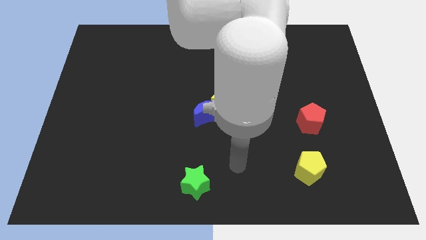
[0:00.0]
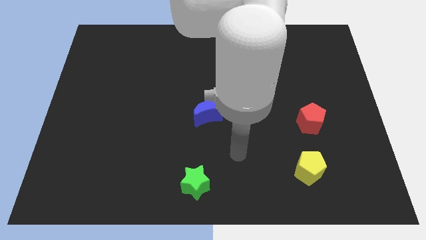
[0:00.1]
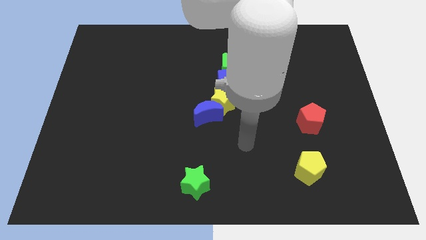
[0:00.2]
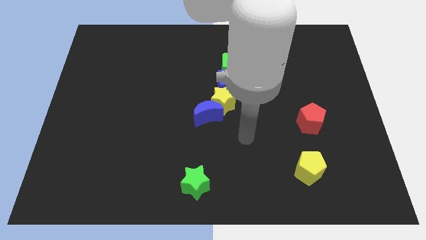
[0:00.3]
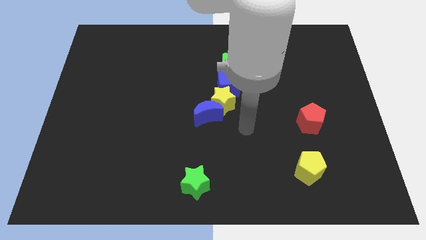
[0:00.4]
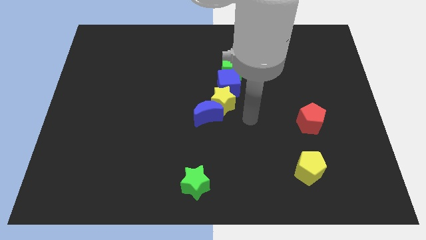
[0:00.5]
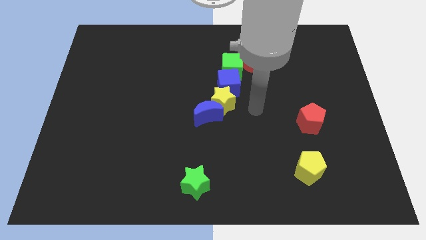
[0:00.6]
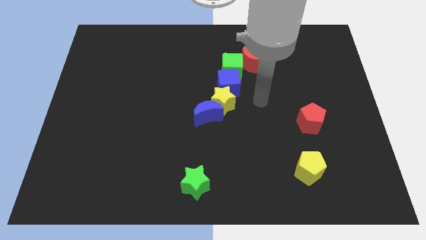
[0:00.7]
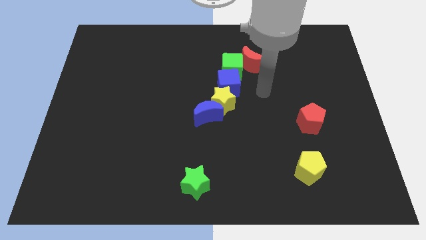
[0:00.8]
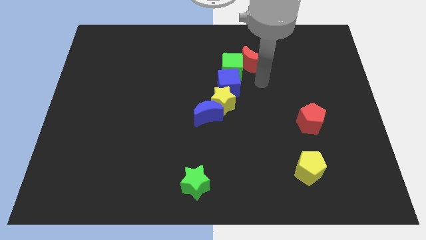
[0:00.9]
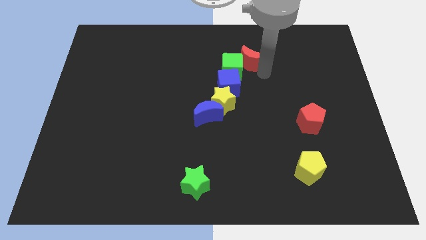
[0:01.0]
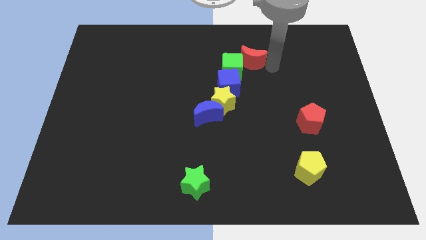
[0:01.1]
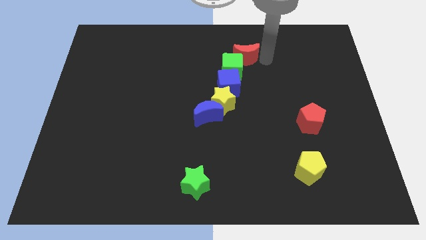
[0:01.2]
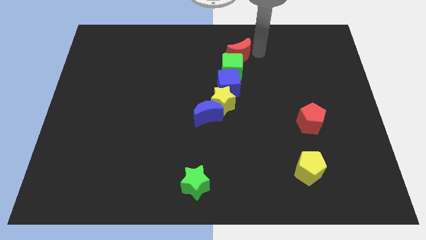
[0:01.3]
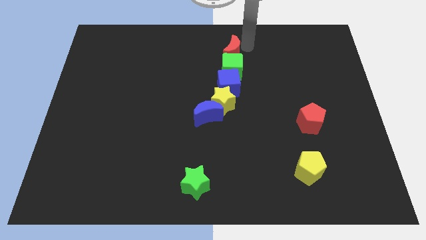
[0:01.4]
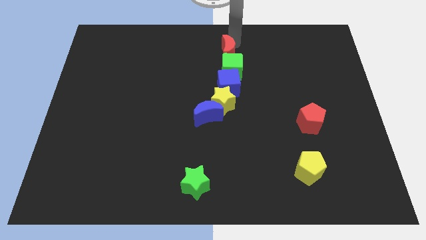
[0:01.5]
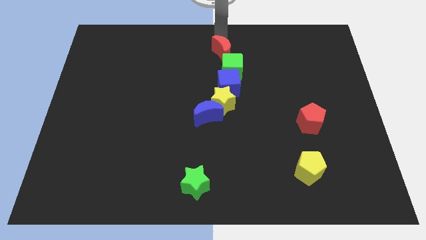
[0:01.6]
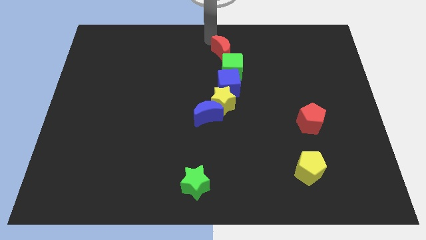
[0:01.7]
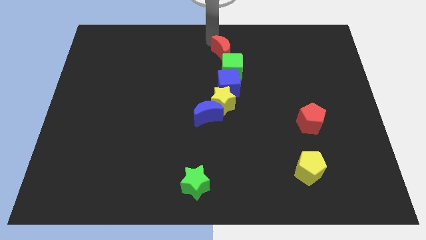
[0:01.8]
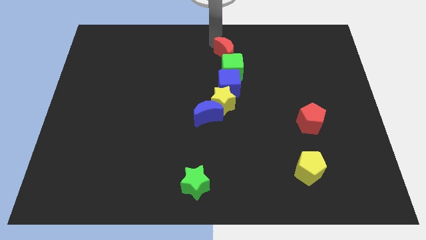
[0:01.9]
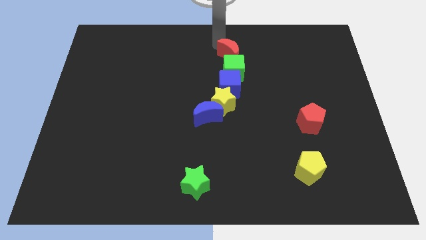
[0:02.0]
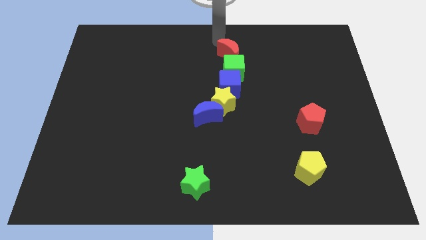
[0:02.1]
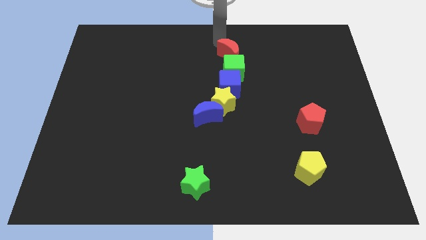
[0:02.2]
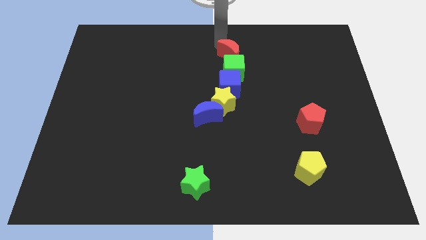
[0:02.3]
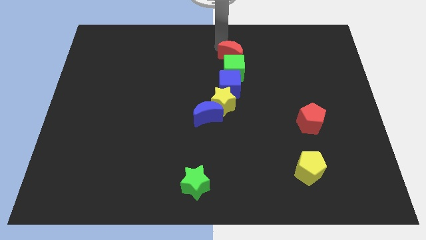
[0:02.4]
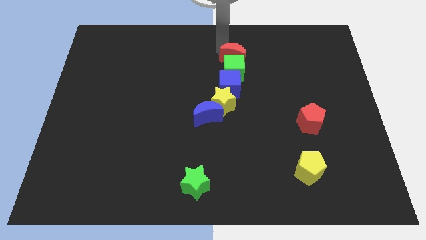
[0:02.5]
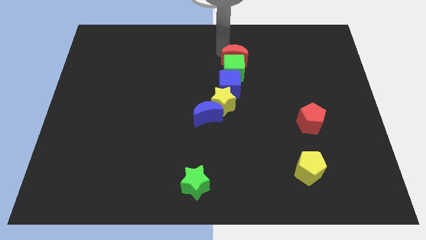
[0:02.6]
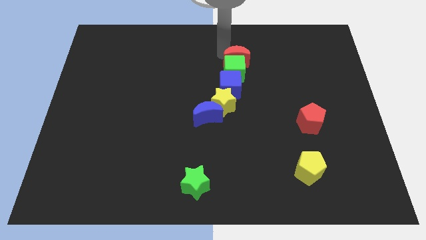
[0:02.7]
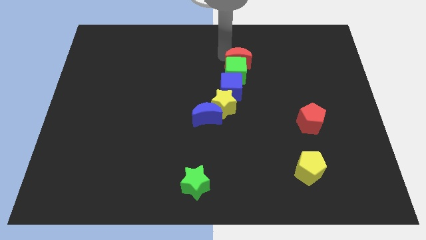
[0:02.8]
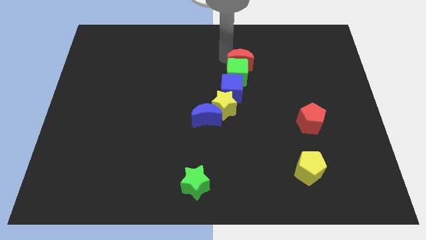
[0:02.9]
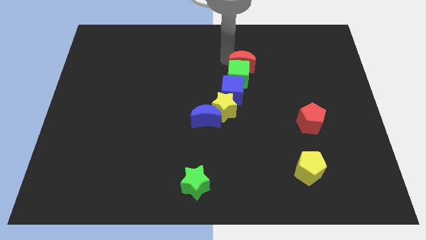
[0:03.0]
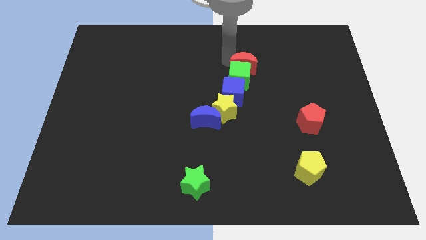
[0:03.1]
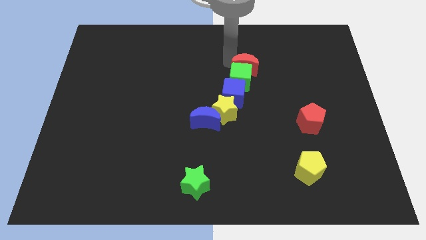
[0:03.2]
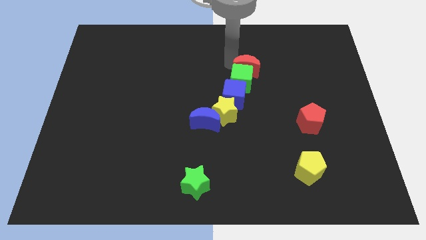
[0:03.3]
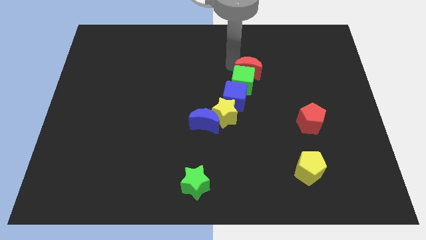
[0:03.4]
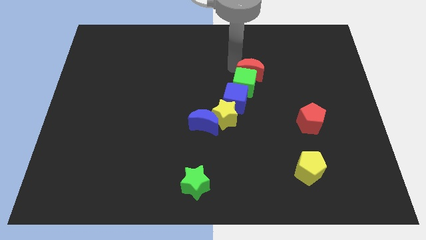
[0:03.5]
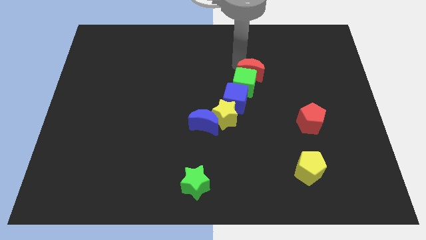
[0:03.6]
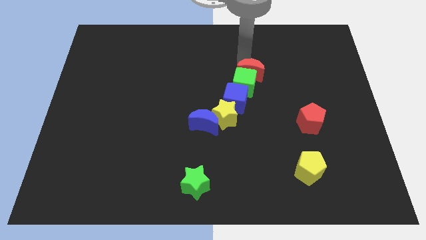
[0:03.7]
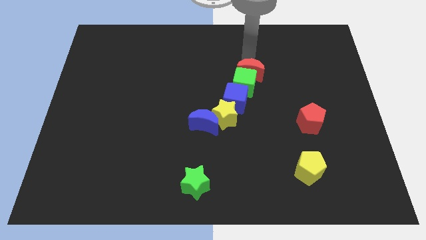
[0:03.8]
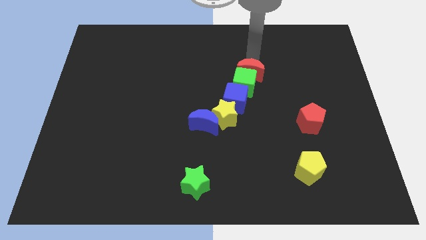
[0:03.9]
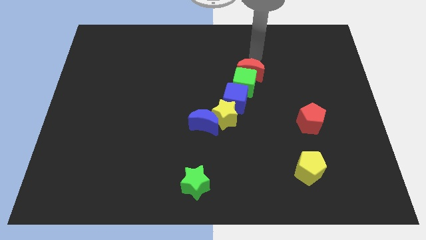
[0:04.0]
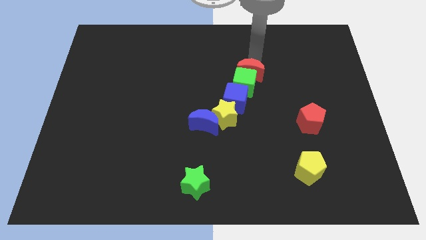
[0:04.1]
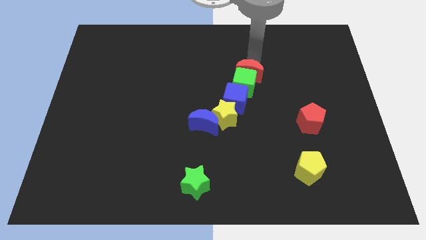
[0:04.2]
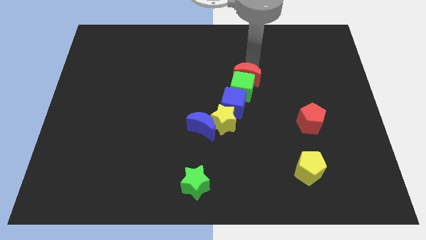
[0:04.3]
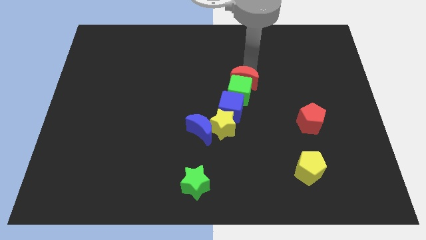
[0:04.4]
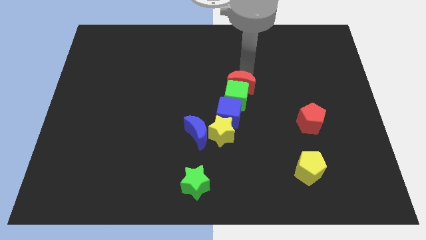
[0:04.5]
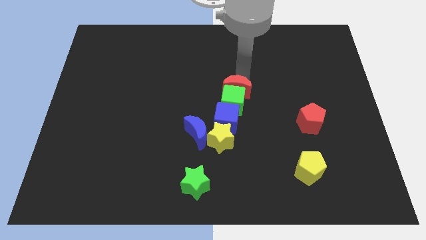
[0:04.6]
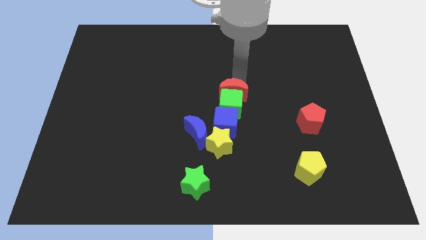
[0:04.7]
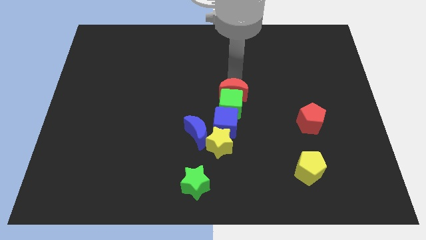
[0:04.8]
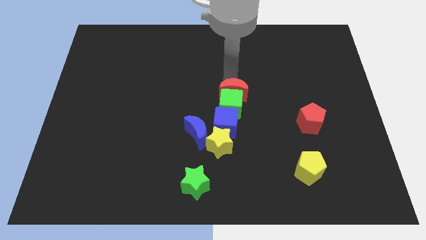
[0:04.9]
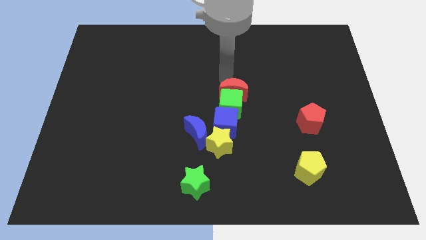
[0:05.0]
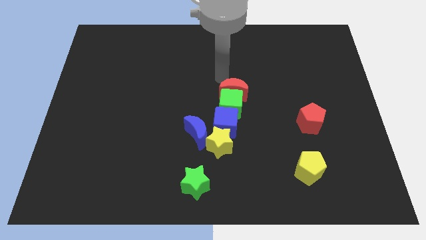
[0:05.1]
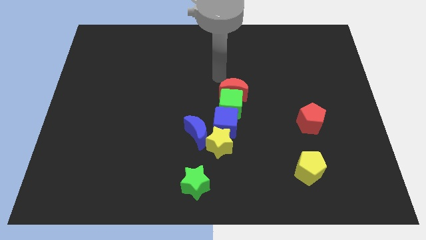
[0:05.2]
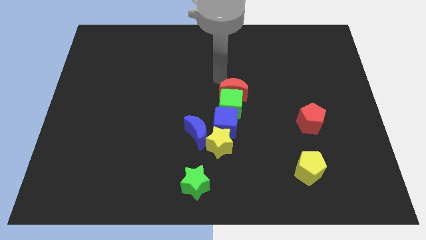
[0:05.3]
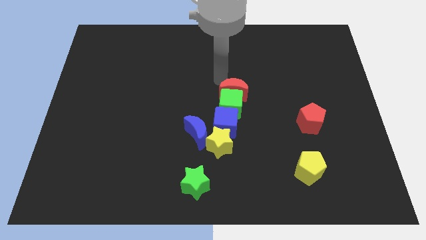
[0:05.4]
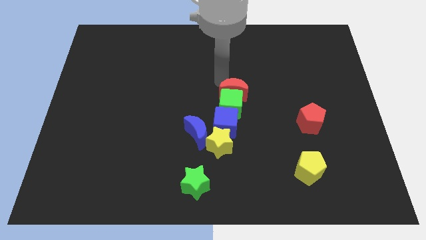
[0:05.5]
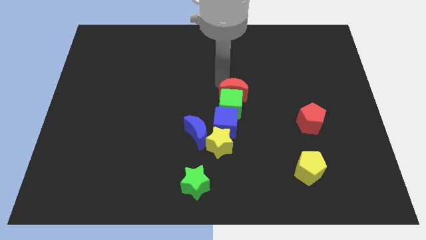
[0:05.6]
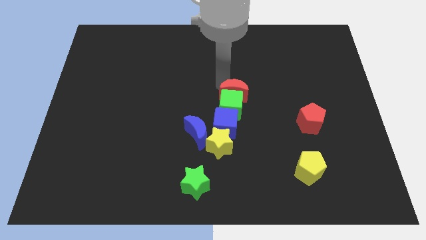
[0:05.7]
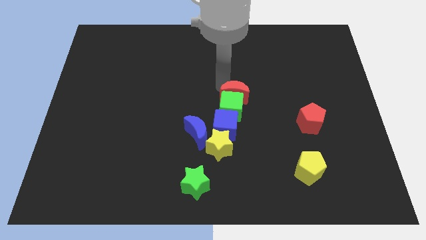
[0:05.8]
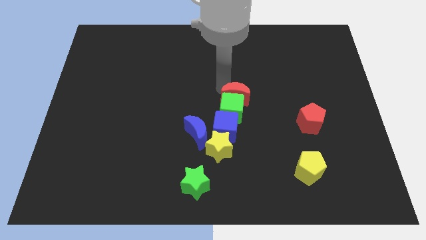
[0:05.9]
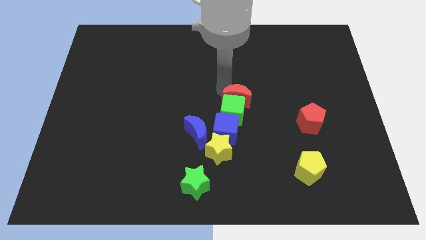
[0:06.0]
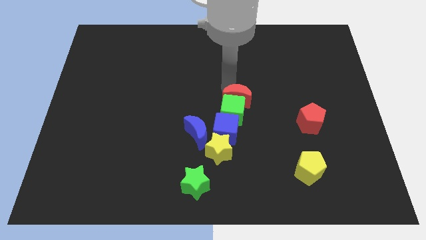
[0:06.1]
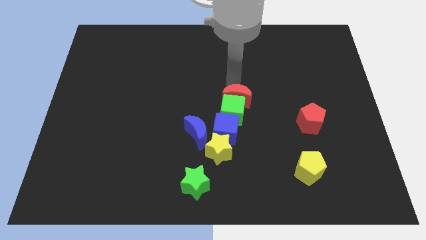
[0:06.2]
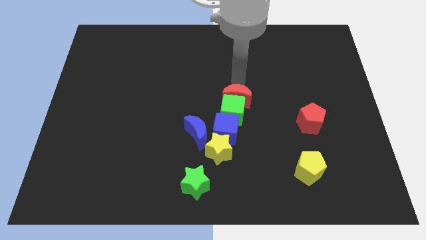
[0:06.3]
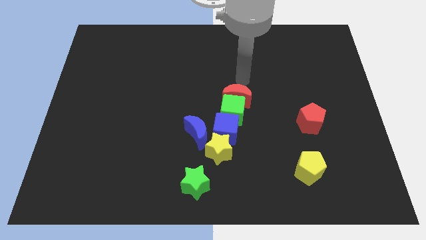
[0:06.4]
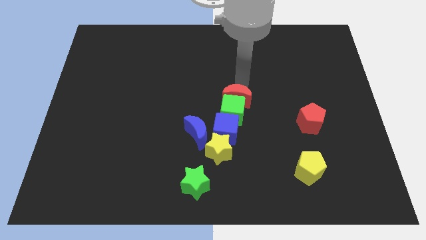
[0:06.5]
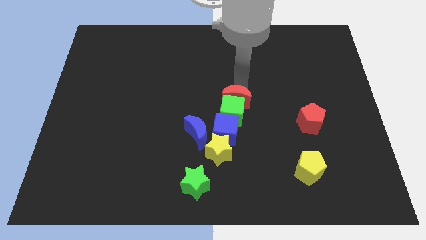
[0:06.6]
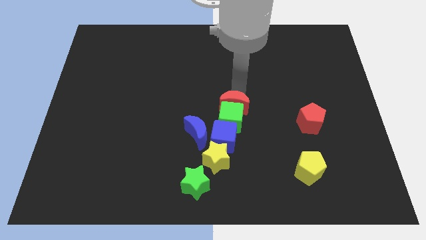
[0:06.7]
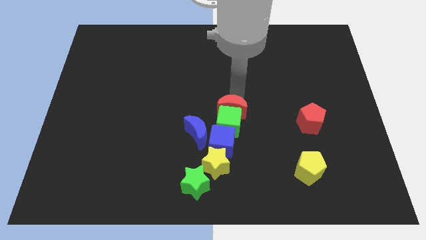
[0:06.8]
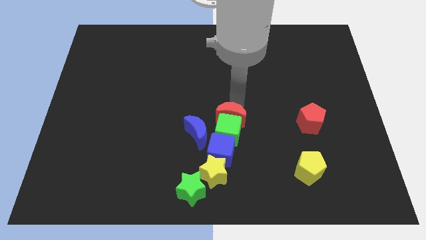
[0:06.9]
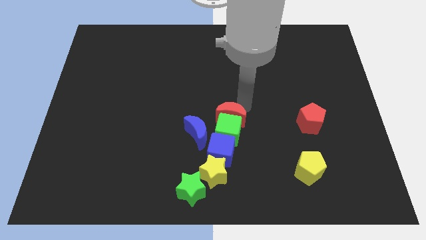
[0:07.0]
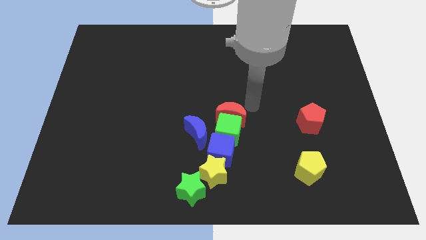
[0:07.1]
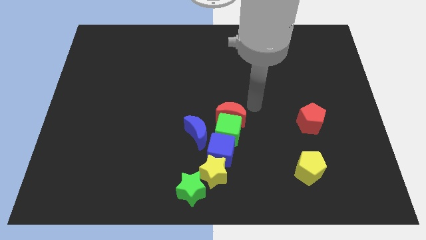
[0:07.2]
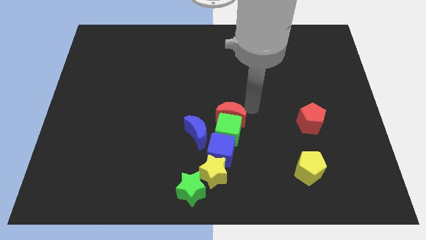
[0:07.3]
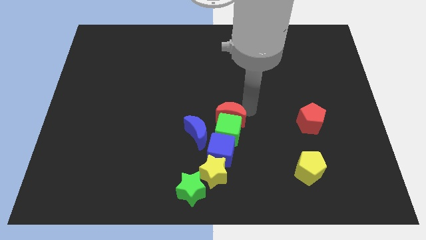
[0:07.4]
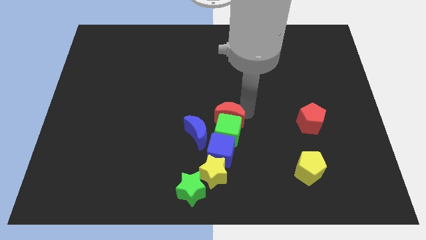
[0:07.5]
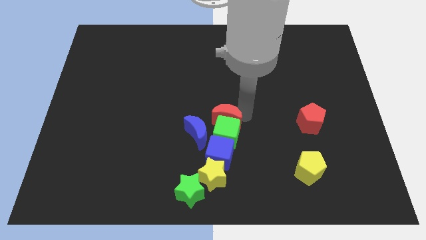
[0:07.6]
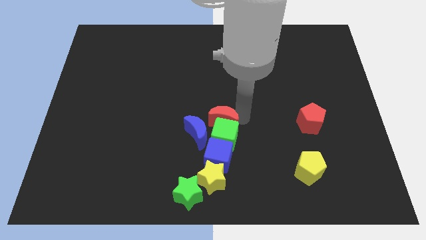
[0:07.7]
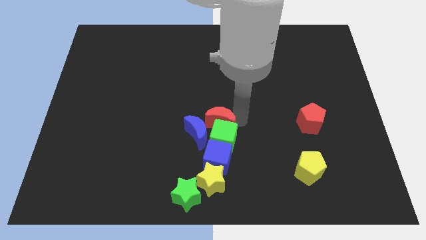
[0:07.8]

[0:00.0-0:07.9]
push the red moon to the blue moon
